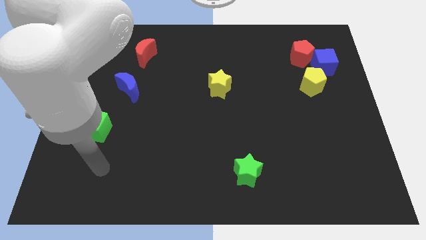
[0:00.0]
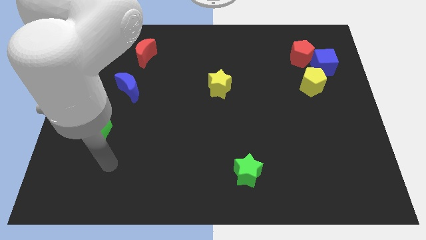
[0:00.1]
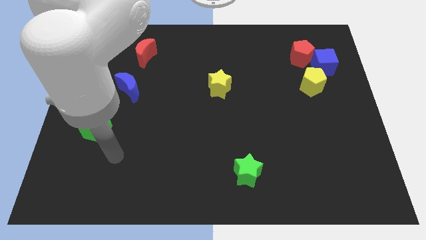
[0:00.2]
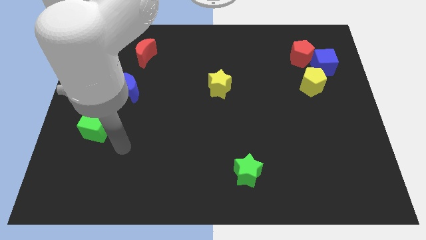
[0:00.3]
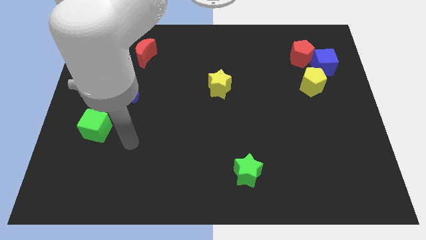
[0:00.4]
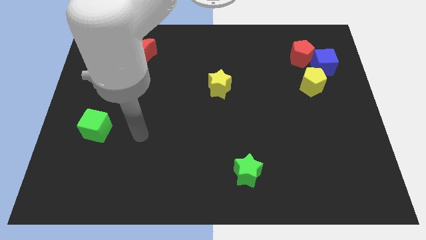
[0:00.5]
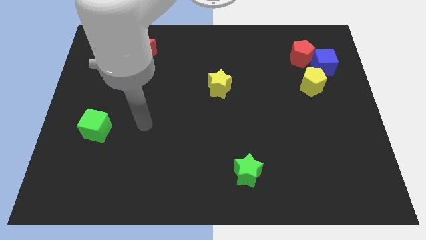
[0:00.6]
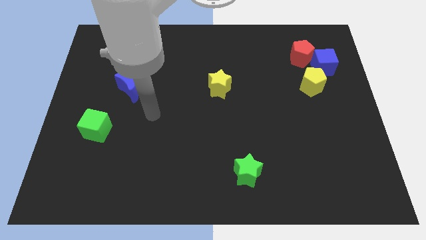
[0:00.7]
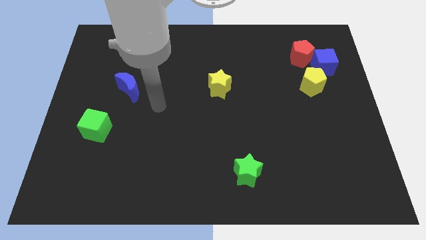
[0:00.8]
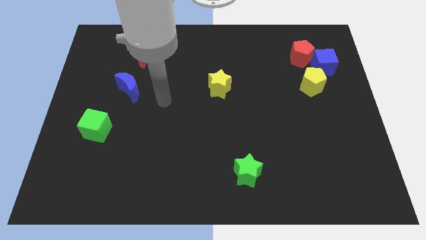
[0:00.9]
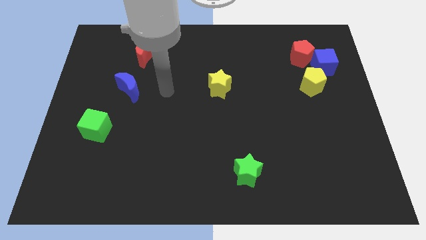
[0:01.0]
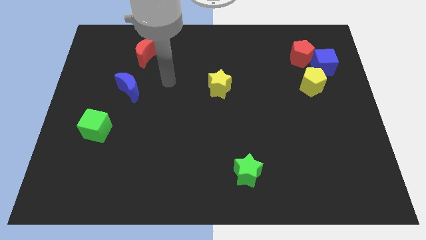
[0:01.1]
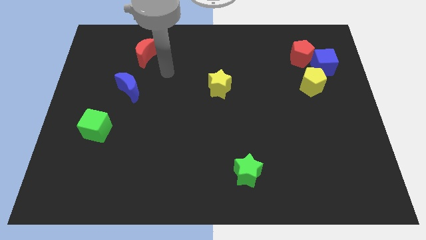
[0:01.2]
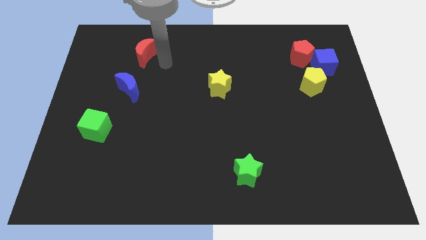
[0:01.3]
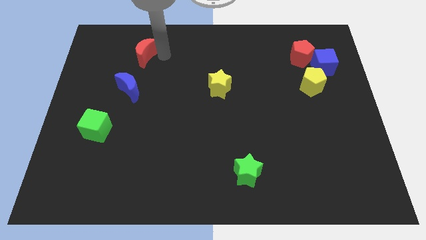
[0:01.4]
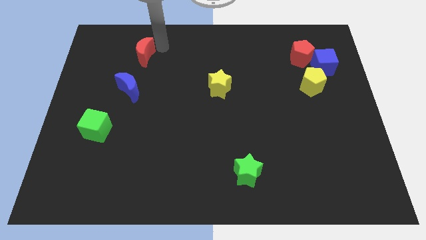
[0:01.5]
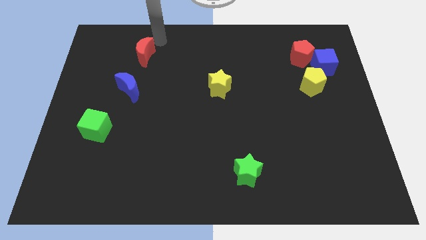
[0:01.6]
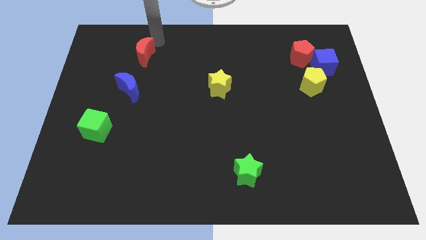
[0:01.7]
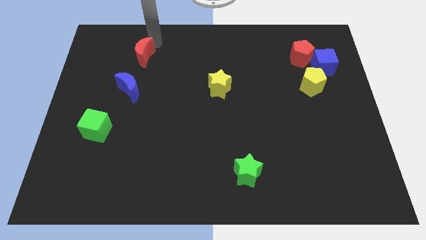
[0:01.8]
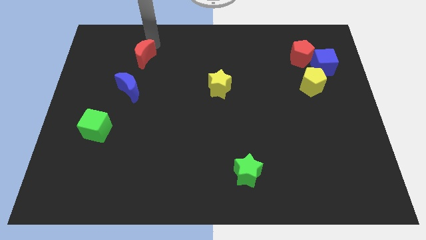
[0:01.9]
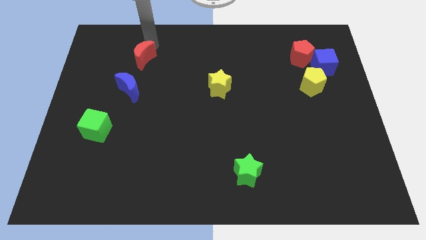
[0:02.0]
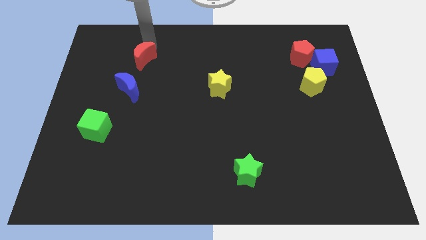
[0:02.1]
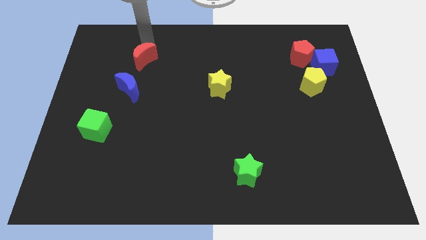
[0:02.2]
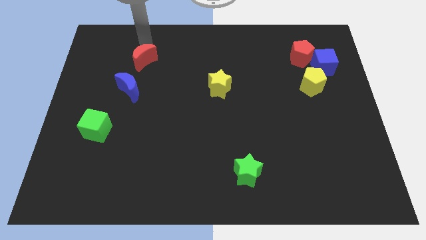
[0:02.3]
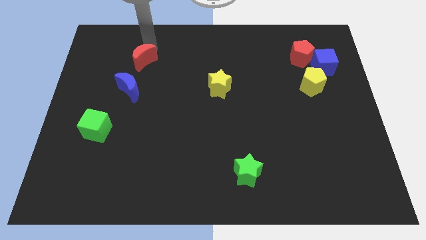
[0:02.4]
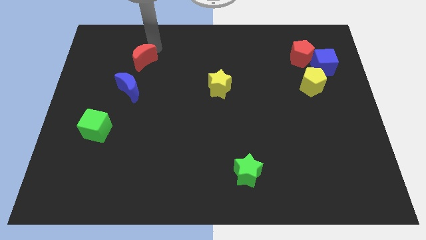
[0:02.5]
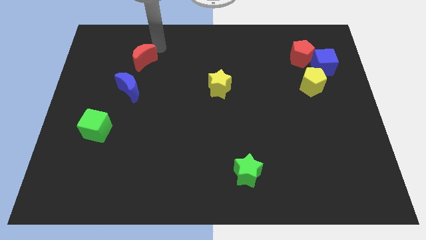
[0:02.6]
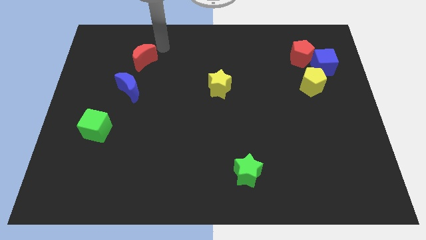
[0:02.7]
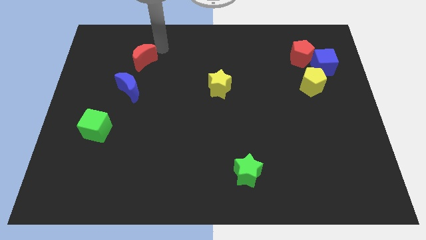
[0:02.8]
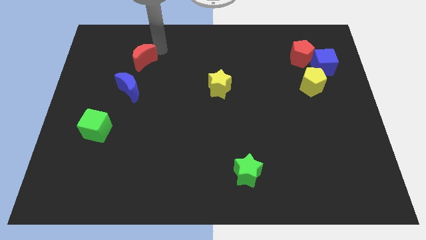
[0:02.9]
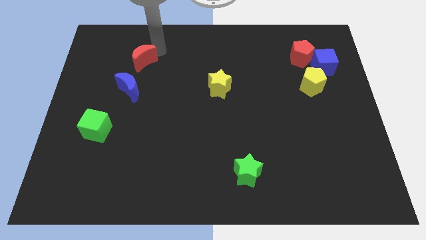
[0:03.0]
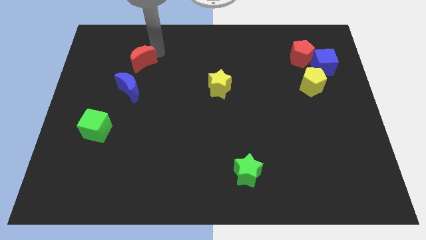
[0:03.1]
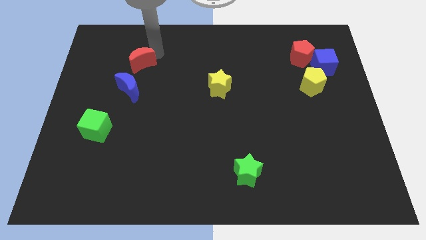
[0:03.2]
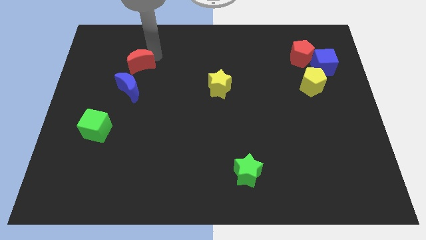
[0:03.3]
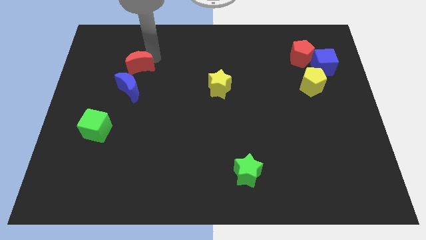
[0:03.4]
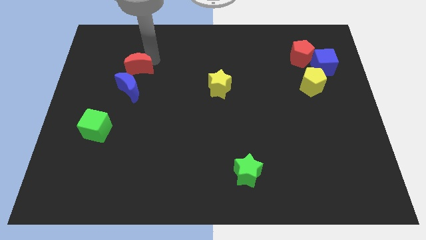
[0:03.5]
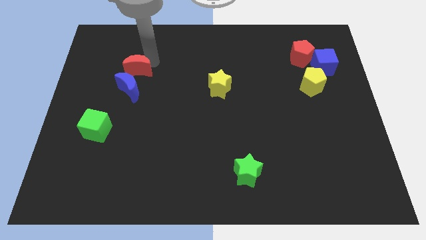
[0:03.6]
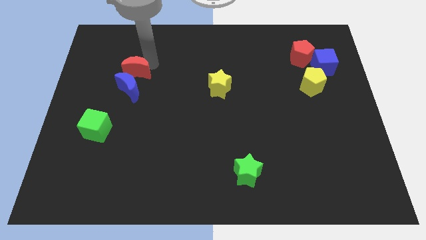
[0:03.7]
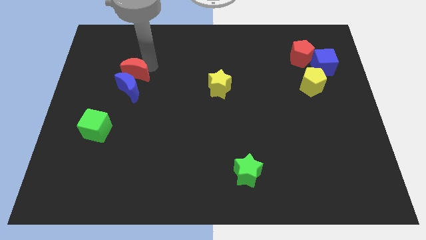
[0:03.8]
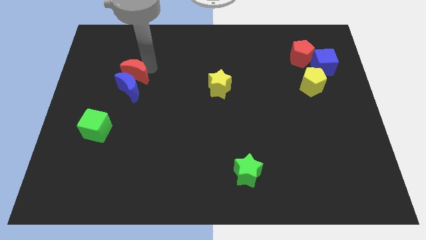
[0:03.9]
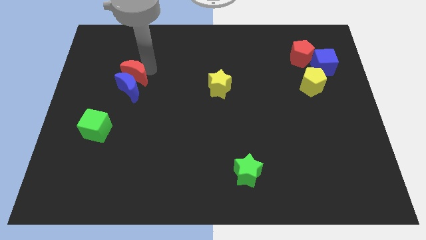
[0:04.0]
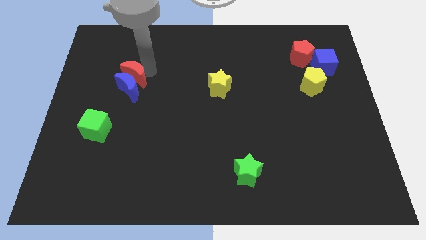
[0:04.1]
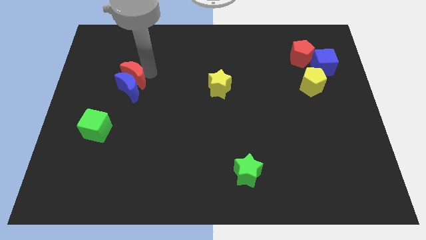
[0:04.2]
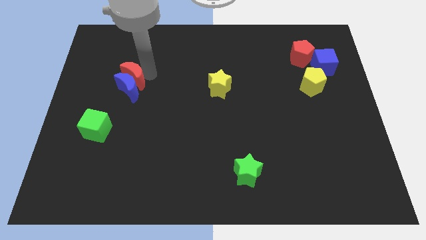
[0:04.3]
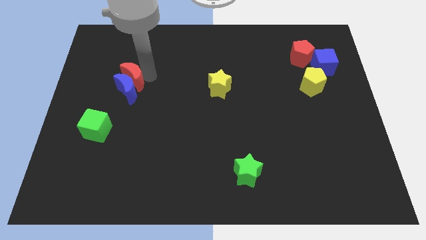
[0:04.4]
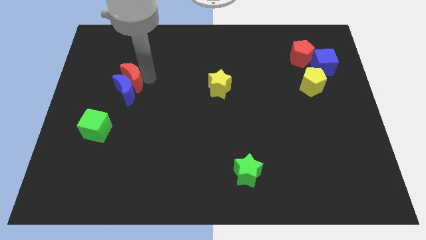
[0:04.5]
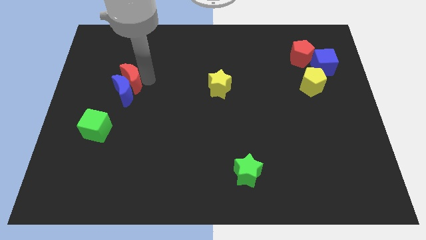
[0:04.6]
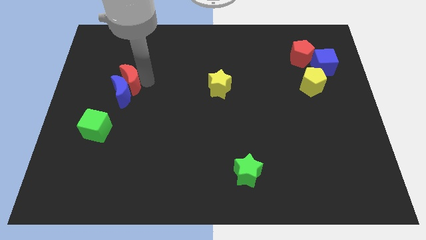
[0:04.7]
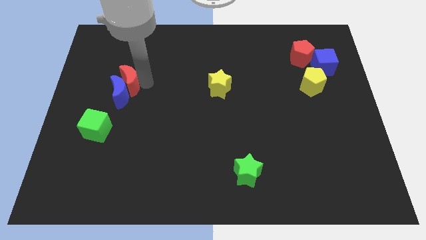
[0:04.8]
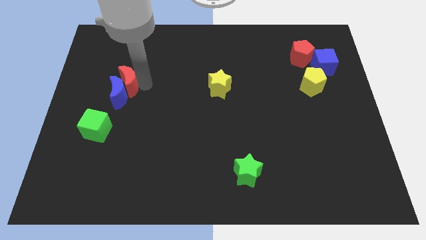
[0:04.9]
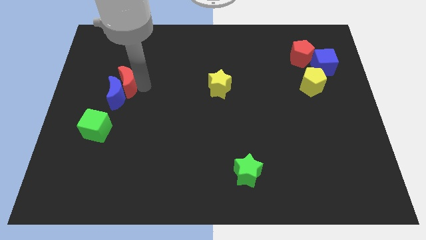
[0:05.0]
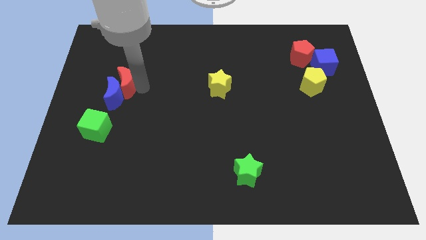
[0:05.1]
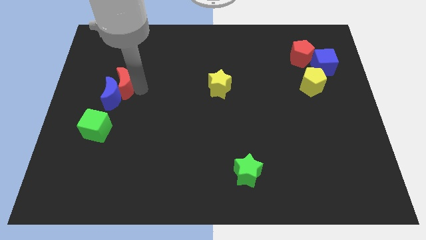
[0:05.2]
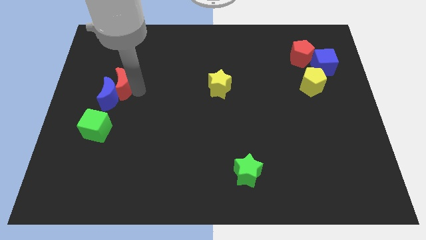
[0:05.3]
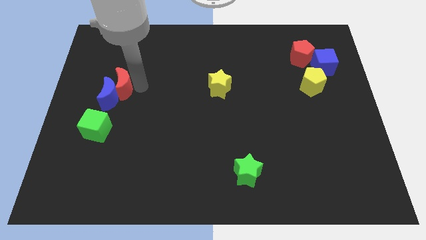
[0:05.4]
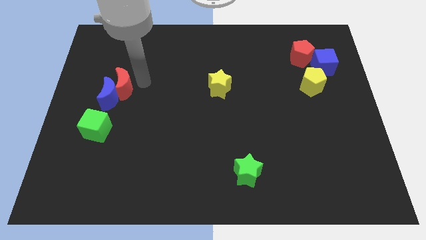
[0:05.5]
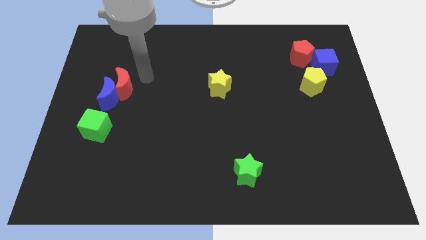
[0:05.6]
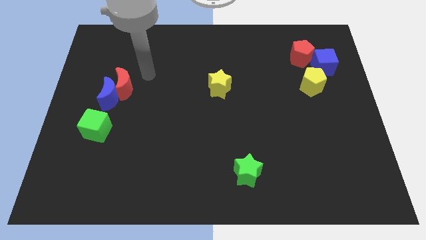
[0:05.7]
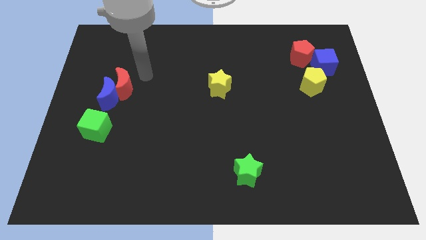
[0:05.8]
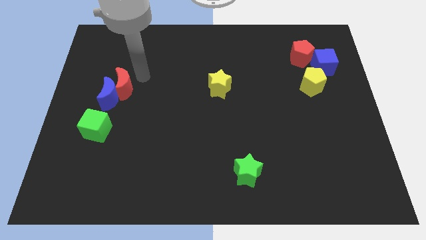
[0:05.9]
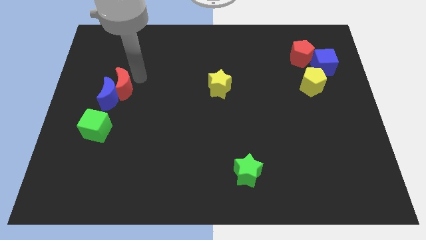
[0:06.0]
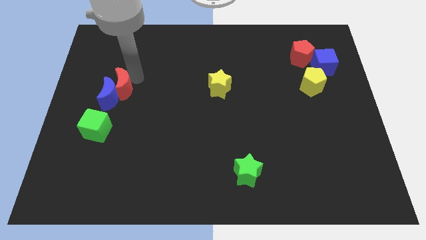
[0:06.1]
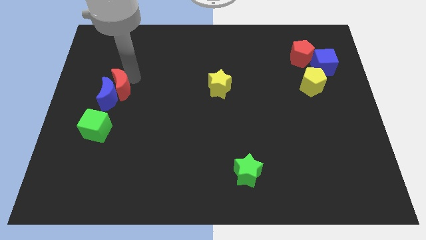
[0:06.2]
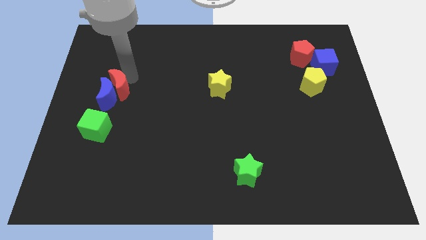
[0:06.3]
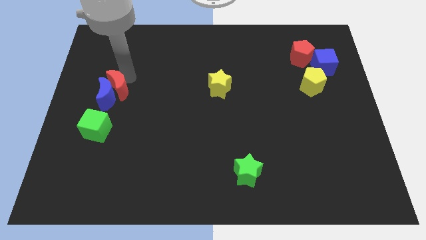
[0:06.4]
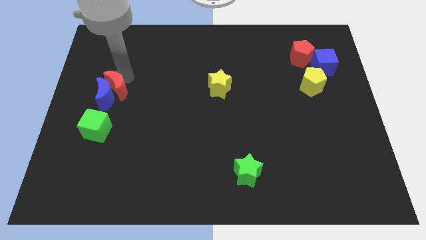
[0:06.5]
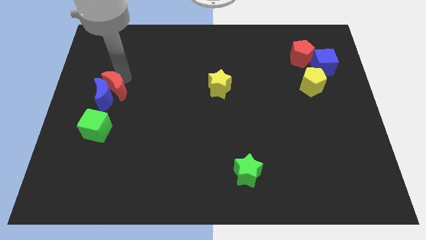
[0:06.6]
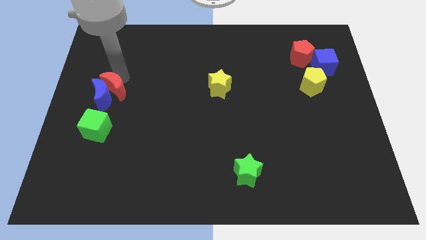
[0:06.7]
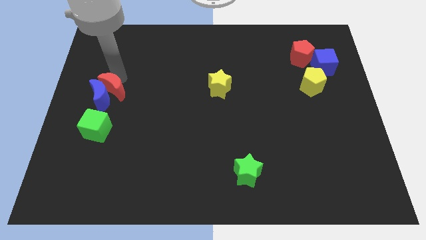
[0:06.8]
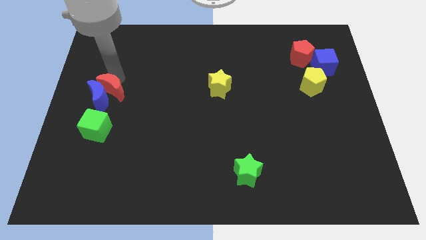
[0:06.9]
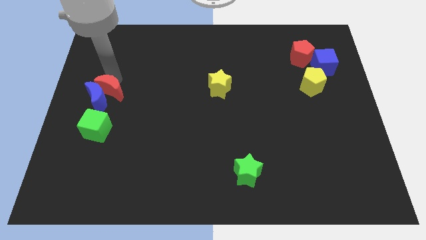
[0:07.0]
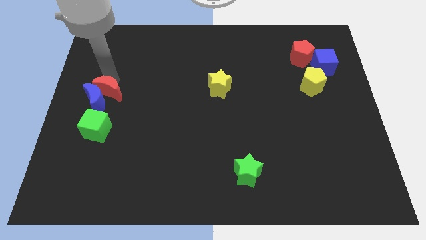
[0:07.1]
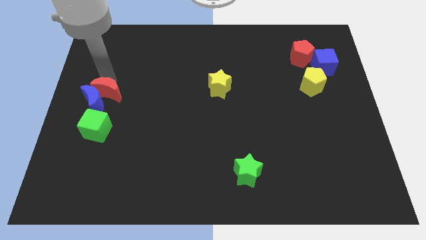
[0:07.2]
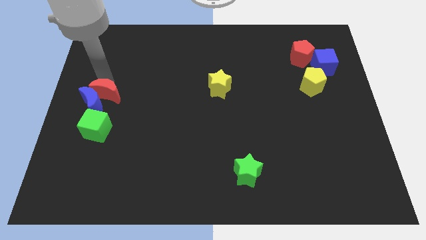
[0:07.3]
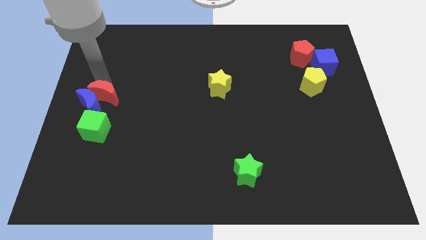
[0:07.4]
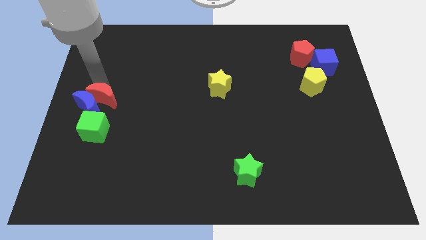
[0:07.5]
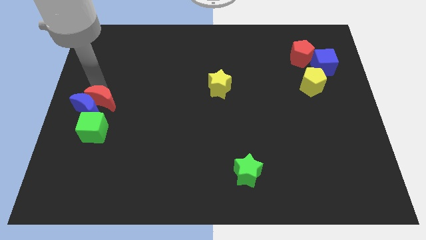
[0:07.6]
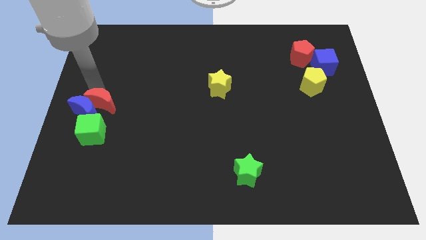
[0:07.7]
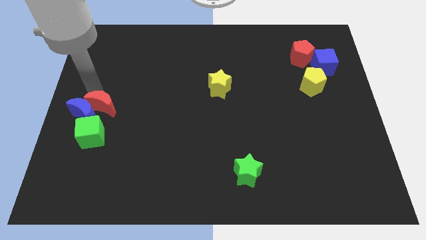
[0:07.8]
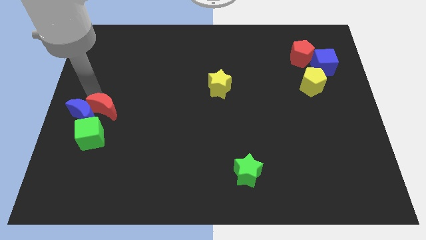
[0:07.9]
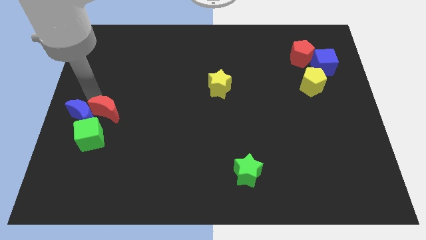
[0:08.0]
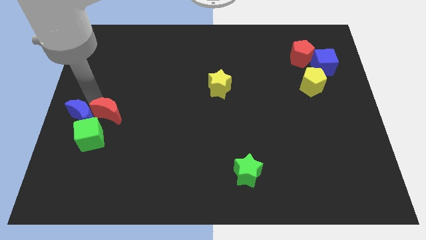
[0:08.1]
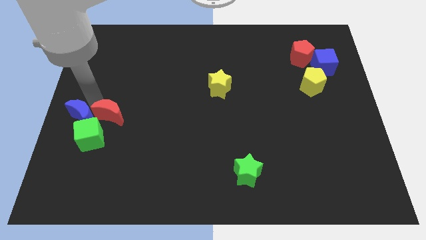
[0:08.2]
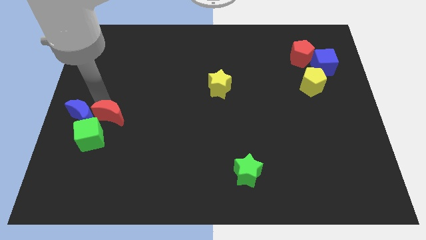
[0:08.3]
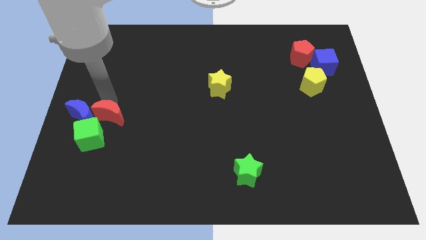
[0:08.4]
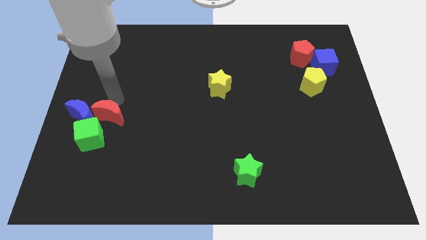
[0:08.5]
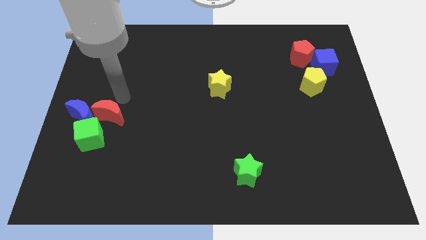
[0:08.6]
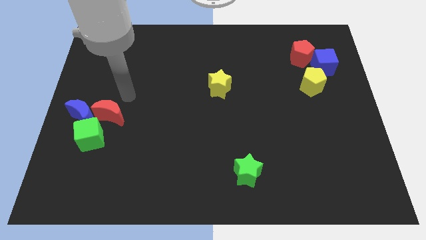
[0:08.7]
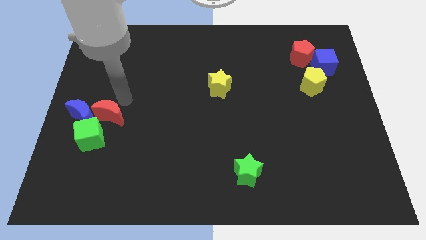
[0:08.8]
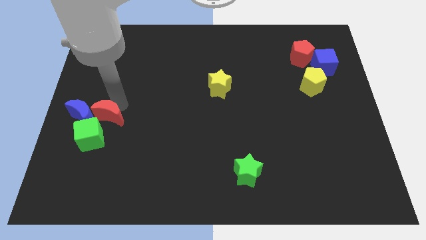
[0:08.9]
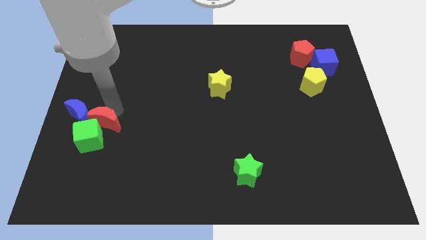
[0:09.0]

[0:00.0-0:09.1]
push the red moon towards the green cube
